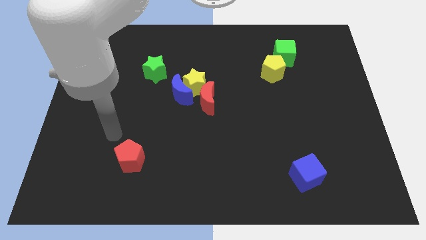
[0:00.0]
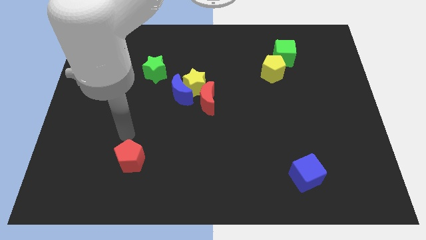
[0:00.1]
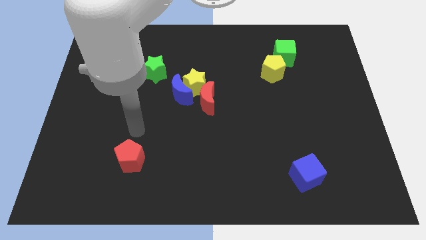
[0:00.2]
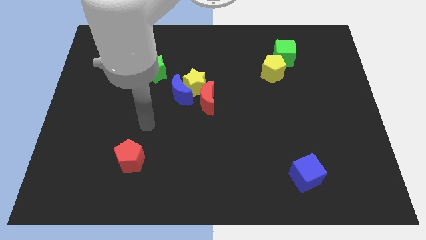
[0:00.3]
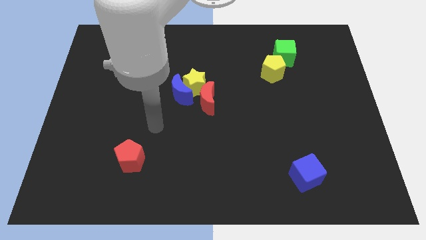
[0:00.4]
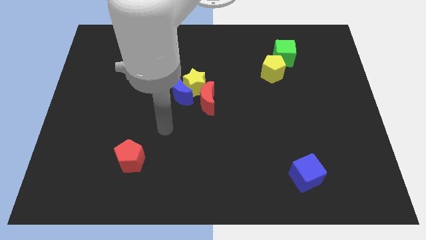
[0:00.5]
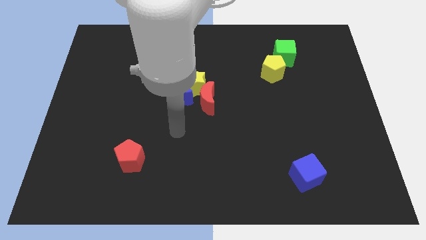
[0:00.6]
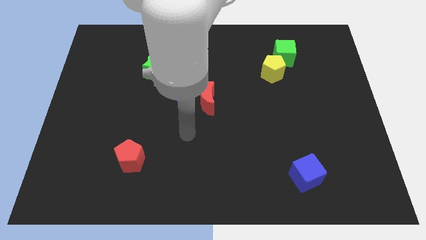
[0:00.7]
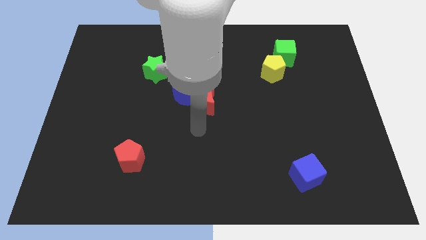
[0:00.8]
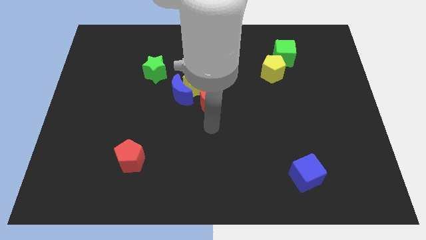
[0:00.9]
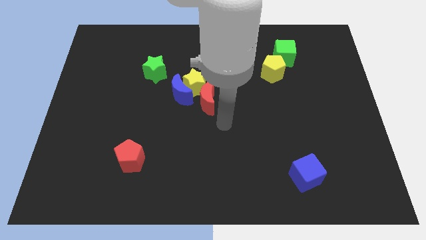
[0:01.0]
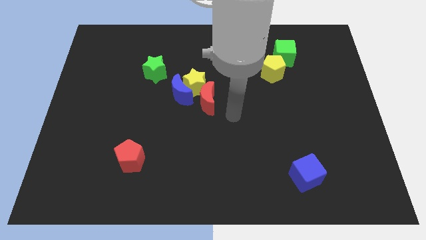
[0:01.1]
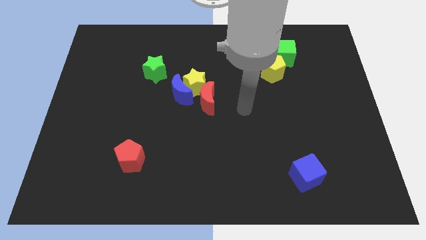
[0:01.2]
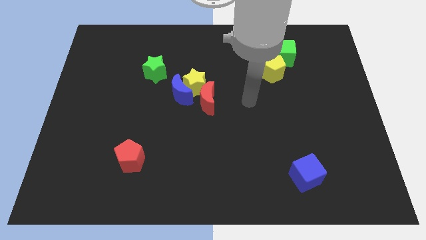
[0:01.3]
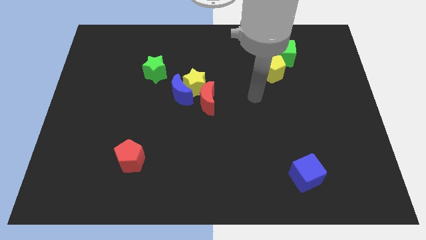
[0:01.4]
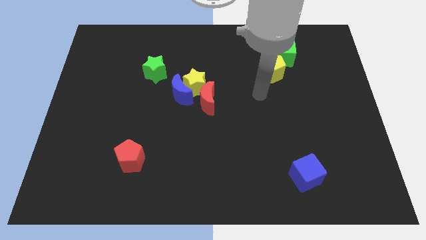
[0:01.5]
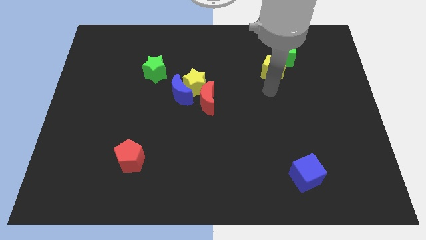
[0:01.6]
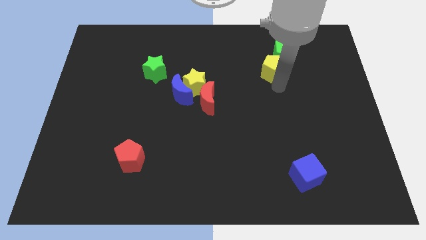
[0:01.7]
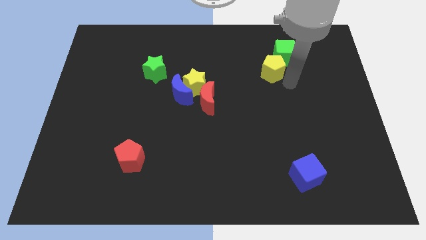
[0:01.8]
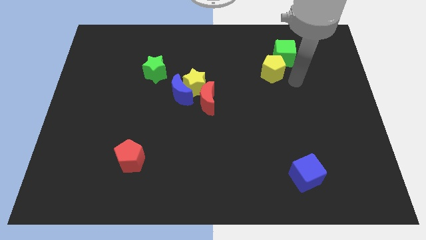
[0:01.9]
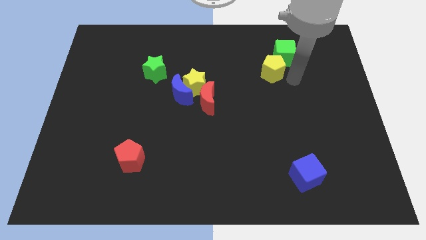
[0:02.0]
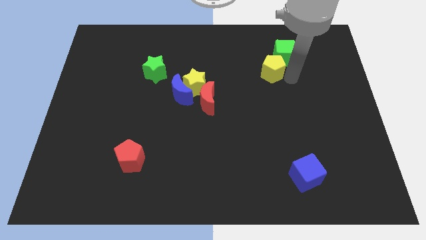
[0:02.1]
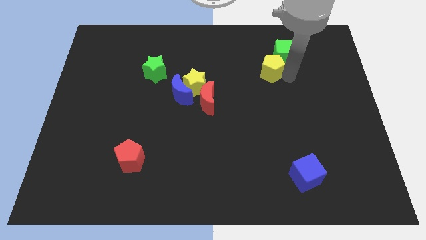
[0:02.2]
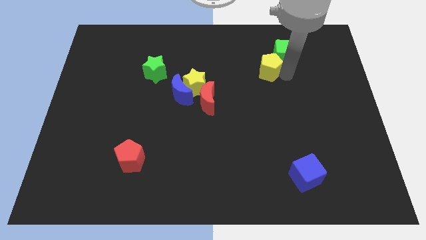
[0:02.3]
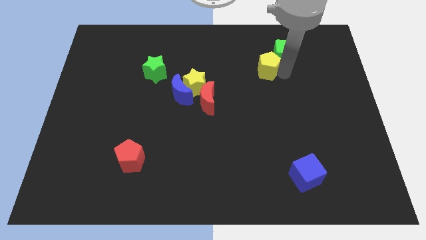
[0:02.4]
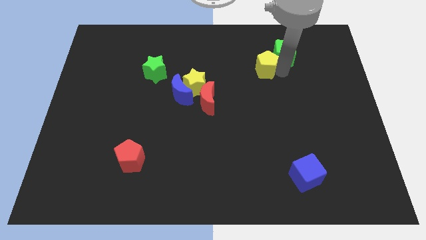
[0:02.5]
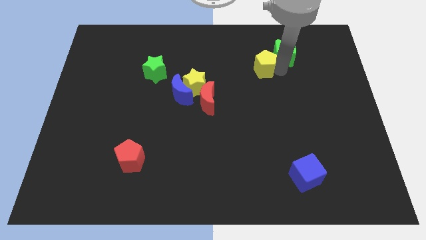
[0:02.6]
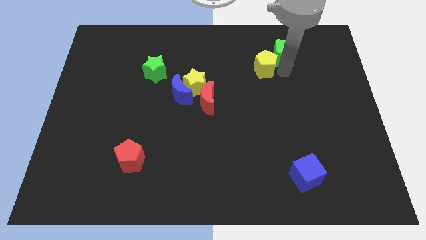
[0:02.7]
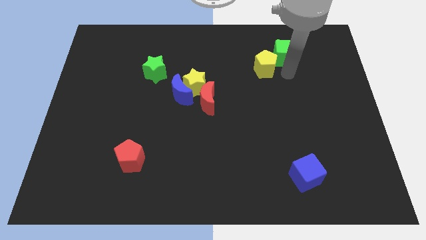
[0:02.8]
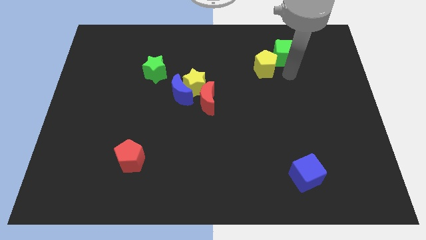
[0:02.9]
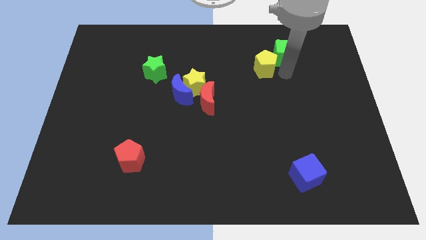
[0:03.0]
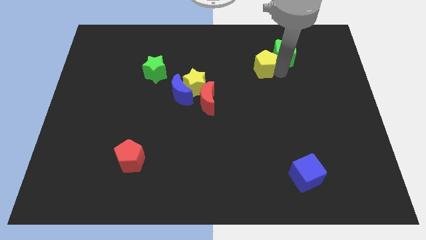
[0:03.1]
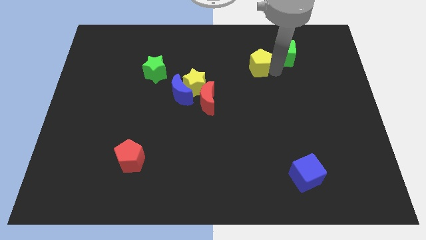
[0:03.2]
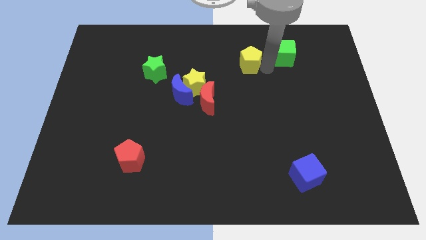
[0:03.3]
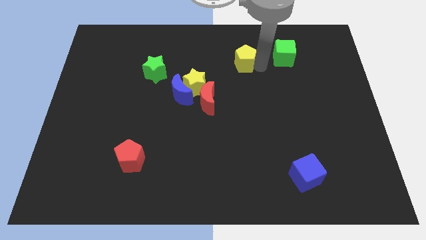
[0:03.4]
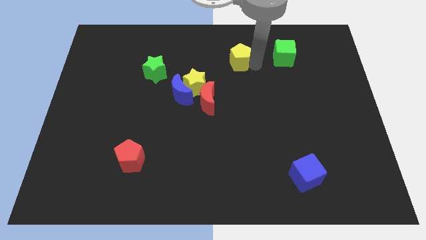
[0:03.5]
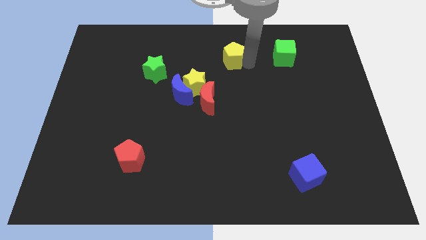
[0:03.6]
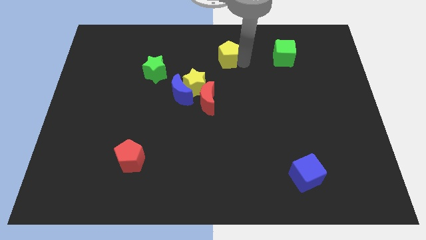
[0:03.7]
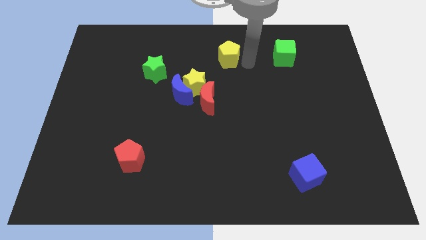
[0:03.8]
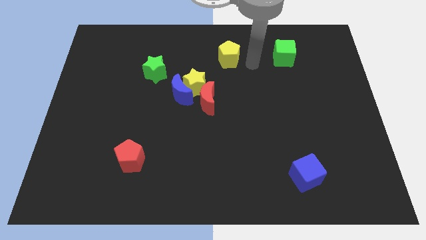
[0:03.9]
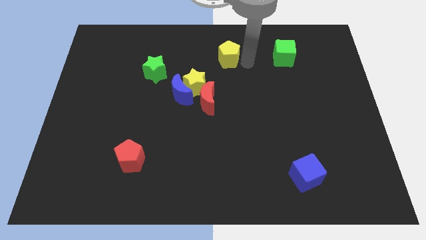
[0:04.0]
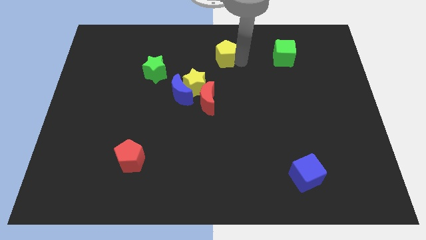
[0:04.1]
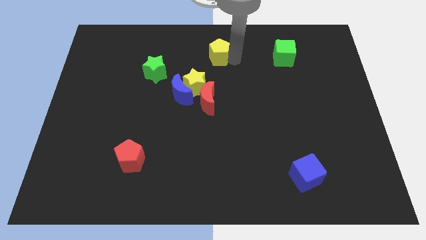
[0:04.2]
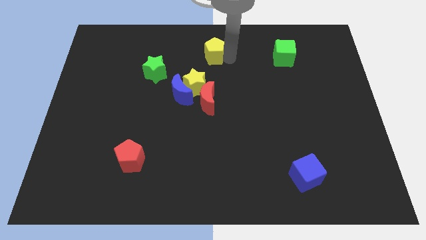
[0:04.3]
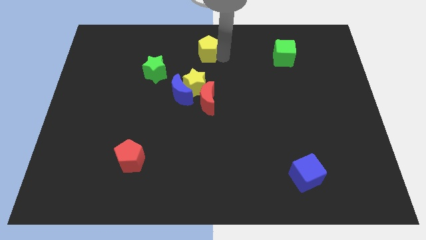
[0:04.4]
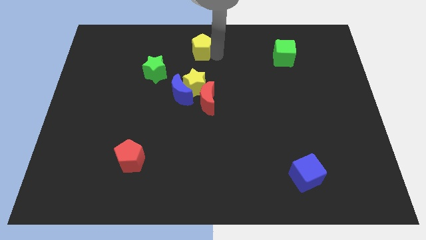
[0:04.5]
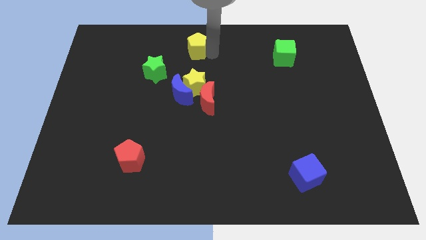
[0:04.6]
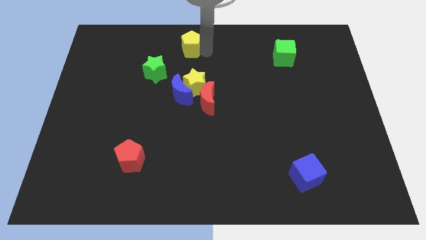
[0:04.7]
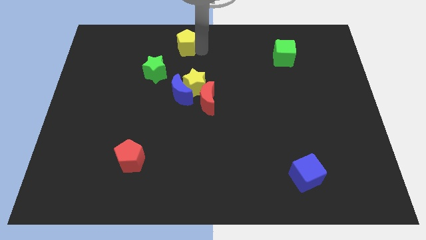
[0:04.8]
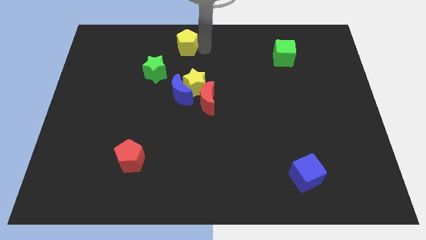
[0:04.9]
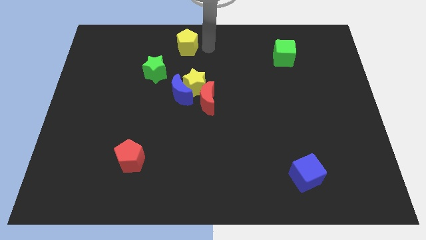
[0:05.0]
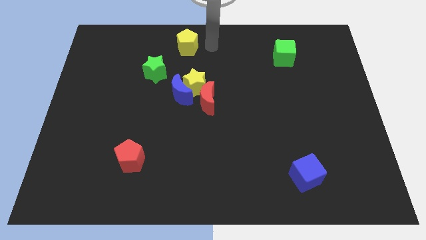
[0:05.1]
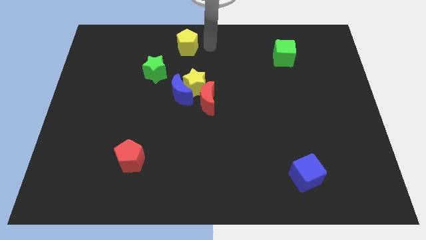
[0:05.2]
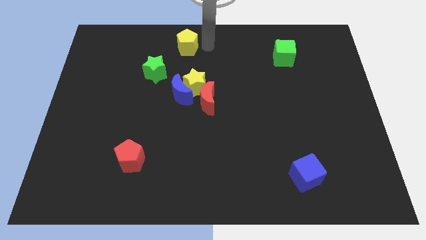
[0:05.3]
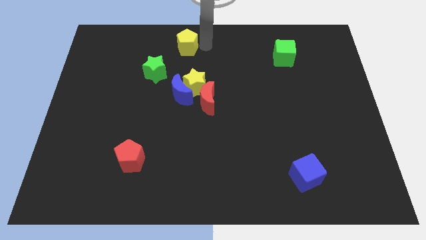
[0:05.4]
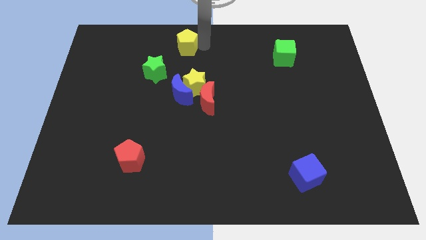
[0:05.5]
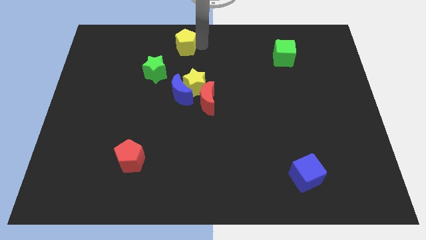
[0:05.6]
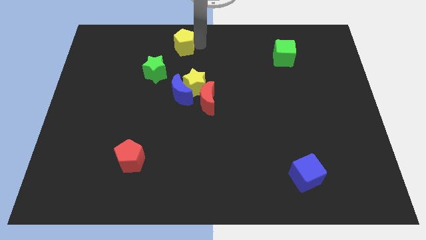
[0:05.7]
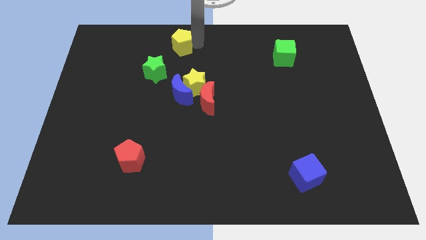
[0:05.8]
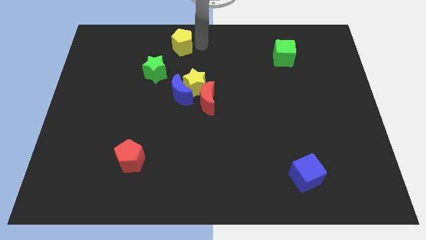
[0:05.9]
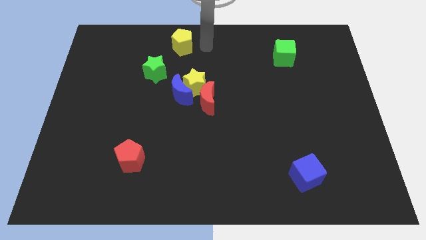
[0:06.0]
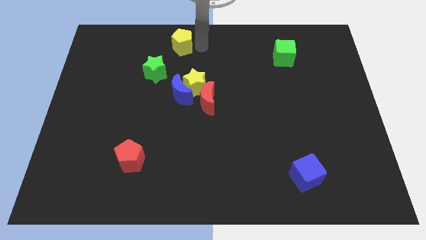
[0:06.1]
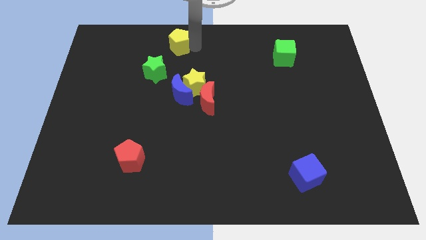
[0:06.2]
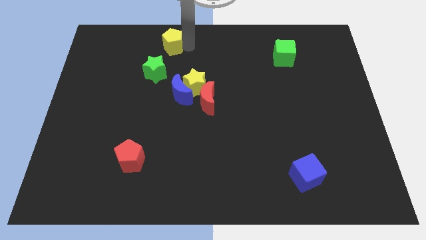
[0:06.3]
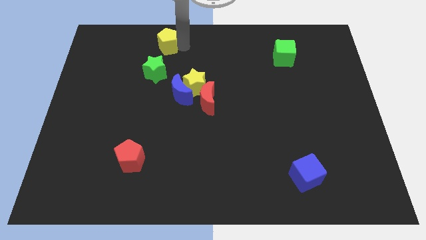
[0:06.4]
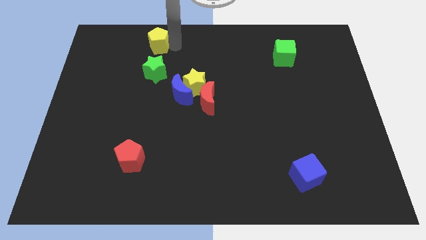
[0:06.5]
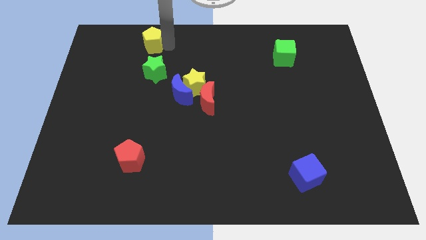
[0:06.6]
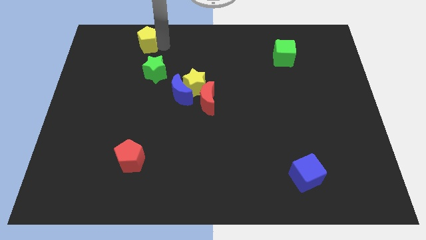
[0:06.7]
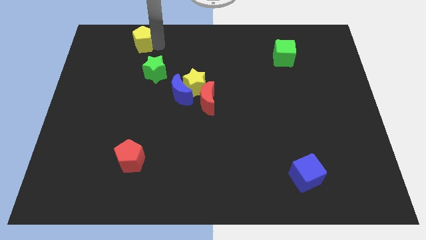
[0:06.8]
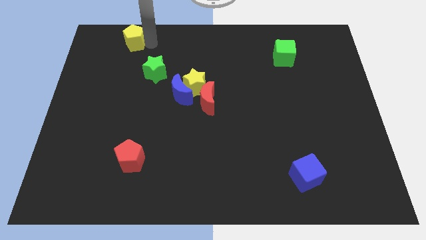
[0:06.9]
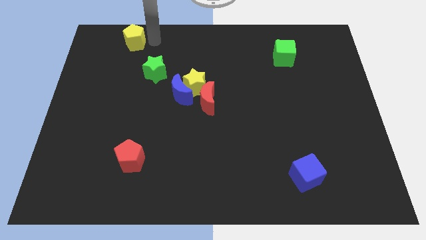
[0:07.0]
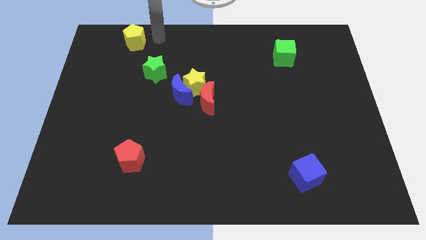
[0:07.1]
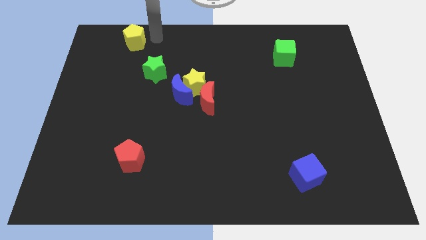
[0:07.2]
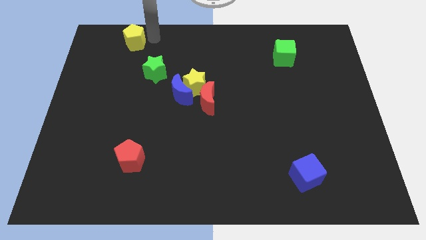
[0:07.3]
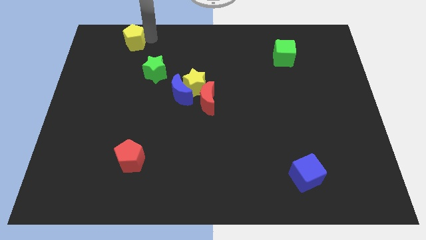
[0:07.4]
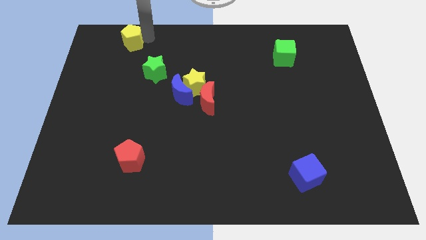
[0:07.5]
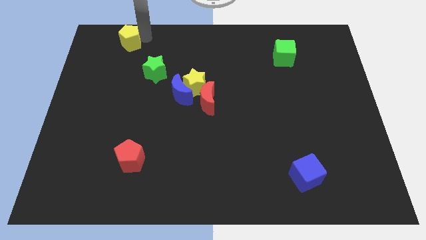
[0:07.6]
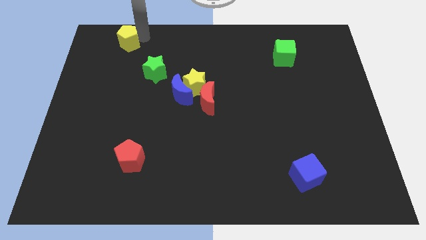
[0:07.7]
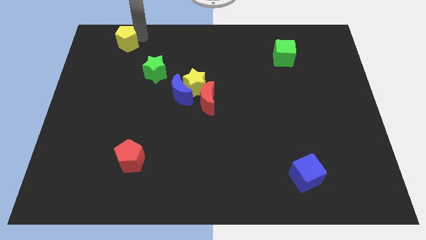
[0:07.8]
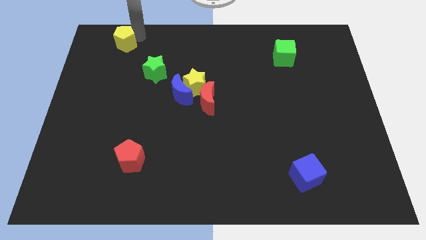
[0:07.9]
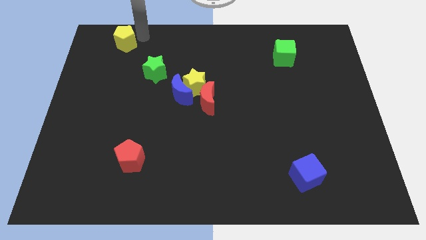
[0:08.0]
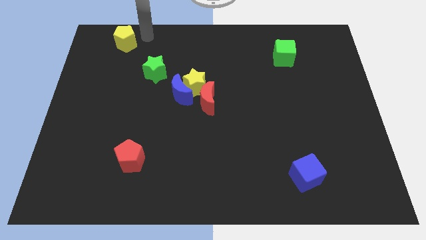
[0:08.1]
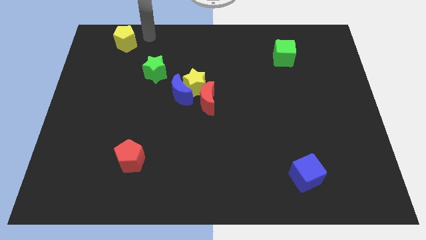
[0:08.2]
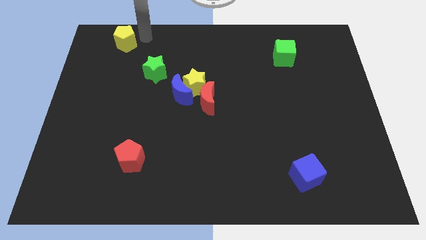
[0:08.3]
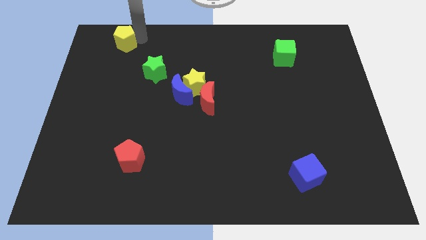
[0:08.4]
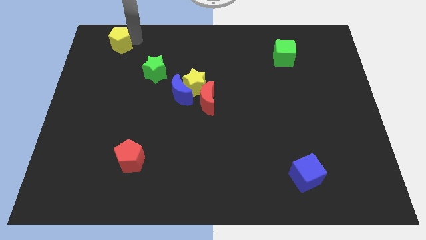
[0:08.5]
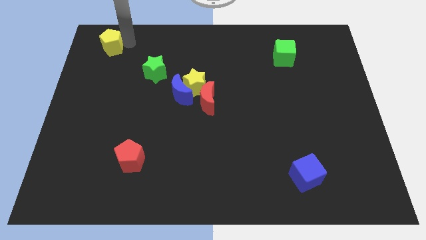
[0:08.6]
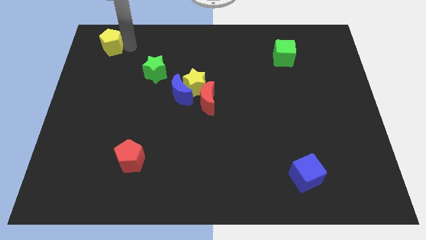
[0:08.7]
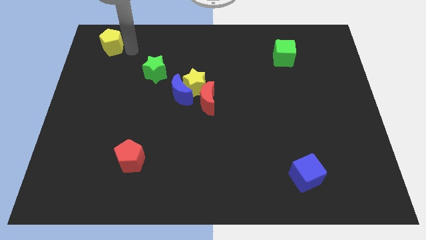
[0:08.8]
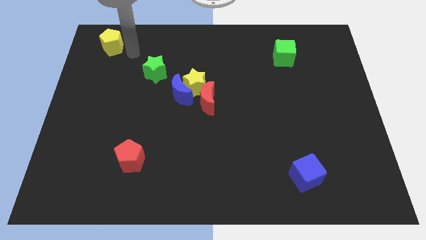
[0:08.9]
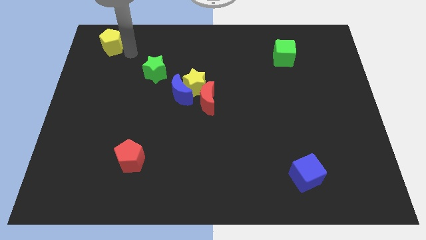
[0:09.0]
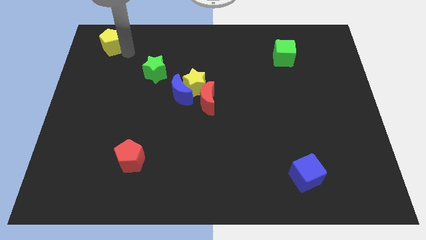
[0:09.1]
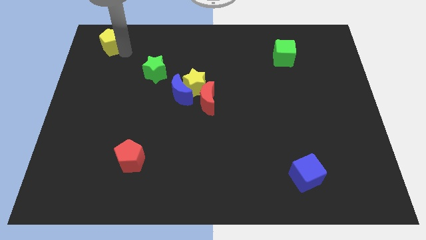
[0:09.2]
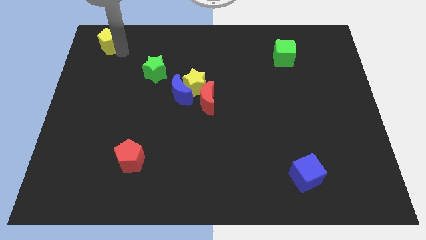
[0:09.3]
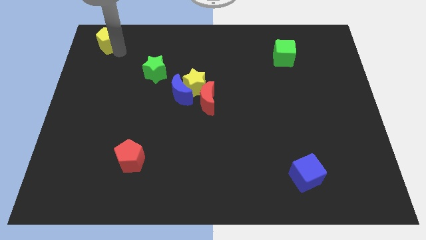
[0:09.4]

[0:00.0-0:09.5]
slide the yellow pentagon to the top left of the board
